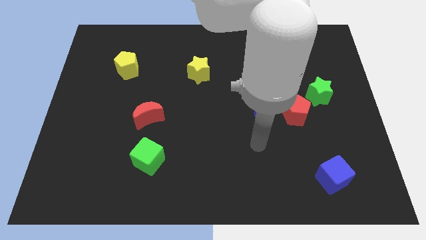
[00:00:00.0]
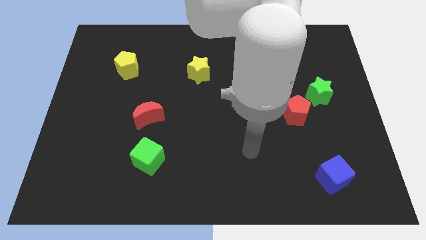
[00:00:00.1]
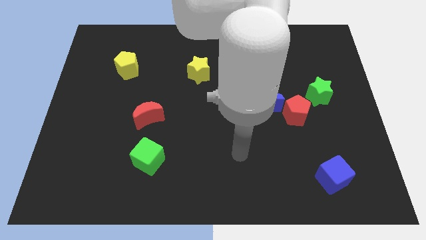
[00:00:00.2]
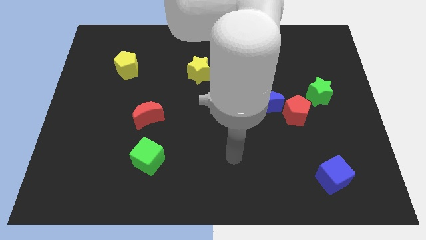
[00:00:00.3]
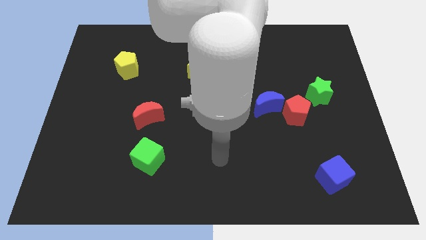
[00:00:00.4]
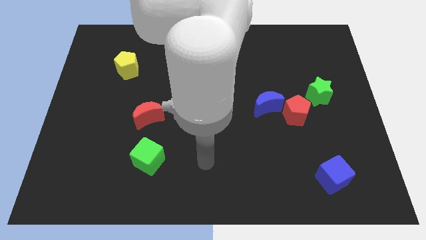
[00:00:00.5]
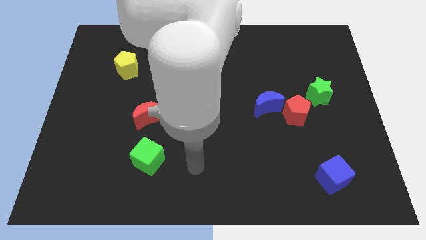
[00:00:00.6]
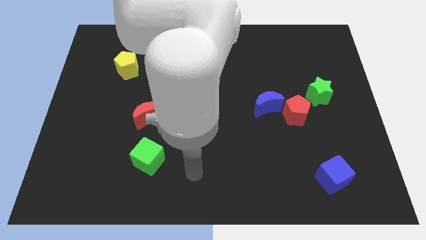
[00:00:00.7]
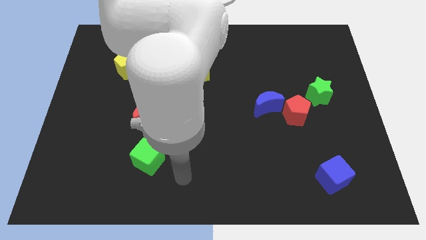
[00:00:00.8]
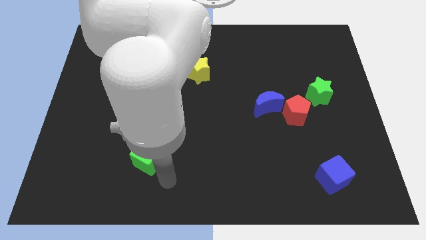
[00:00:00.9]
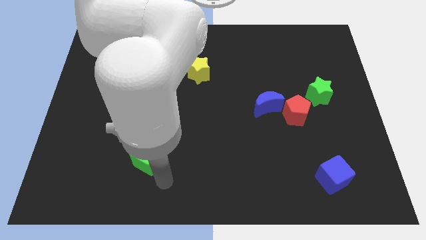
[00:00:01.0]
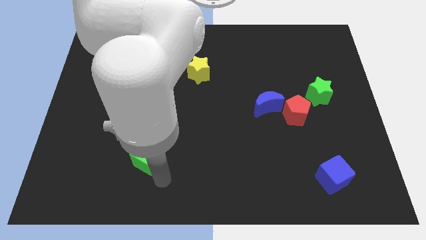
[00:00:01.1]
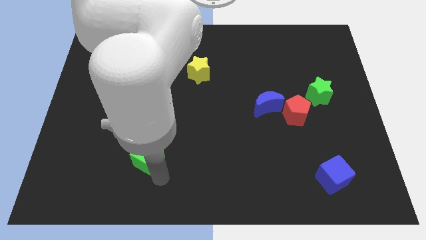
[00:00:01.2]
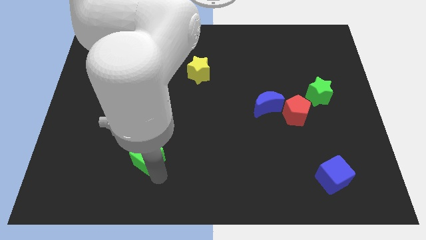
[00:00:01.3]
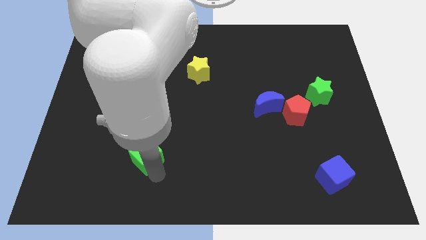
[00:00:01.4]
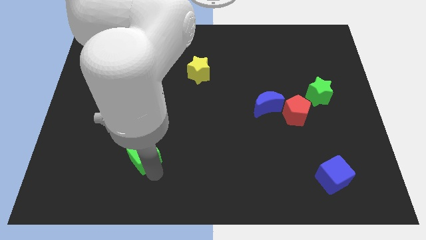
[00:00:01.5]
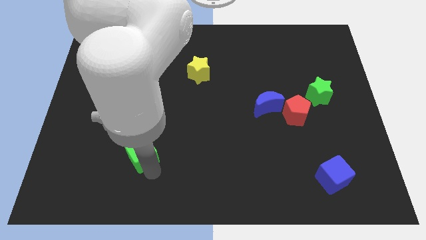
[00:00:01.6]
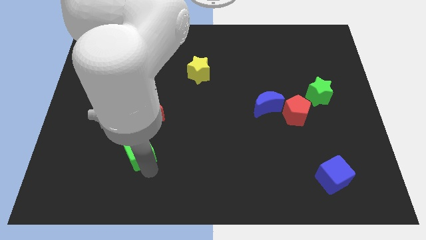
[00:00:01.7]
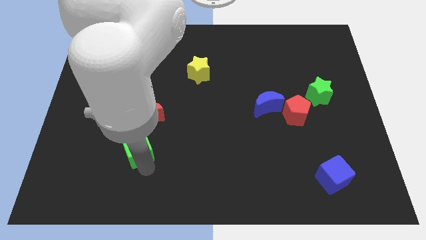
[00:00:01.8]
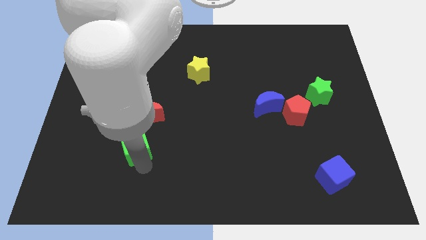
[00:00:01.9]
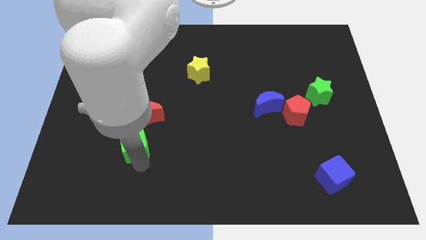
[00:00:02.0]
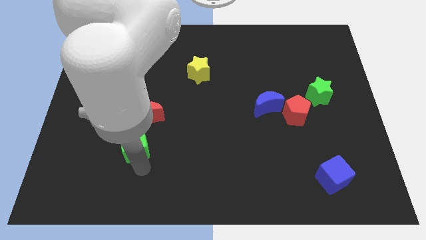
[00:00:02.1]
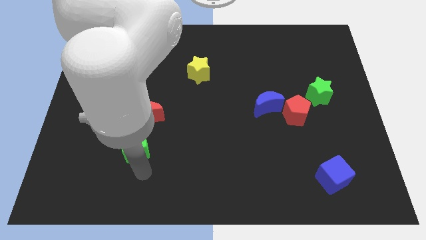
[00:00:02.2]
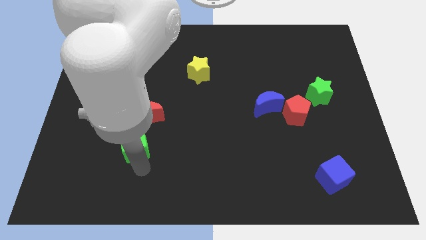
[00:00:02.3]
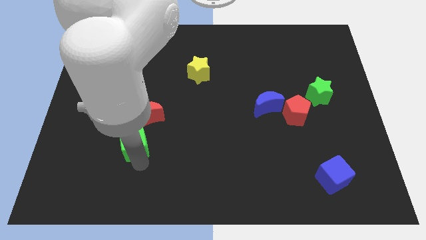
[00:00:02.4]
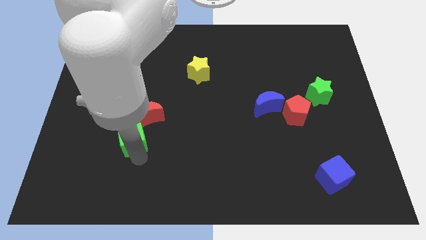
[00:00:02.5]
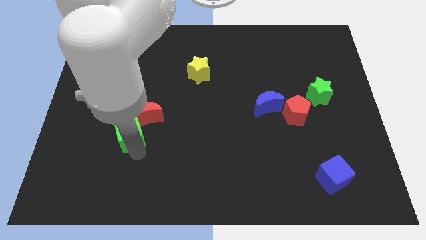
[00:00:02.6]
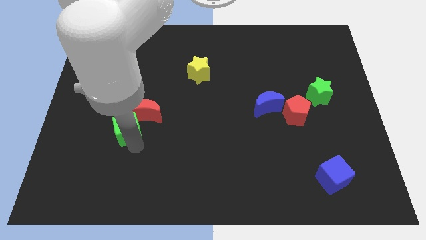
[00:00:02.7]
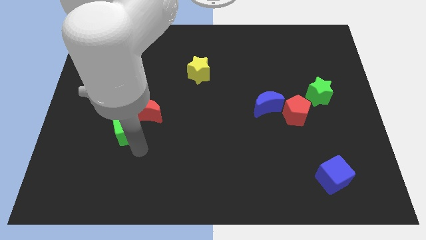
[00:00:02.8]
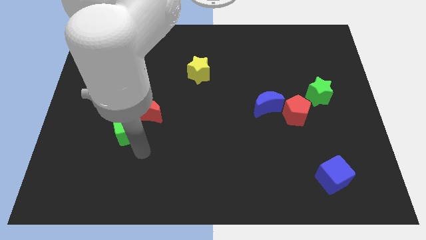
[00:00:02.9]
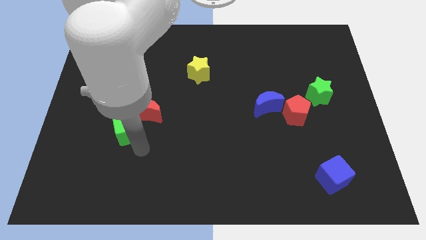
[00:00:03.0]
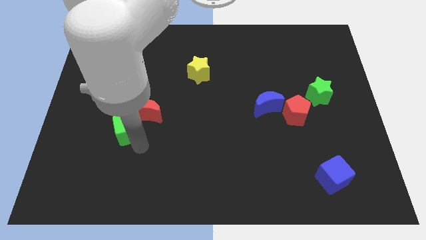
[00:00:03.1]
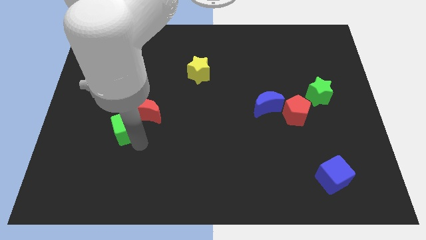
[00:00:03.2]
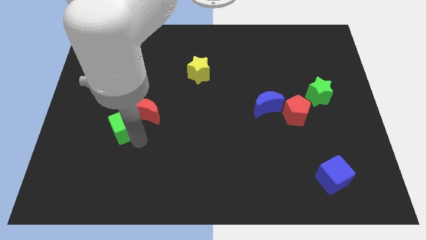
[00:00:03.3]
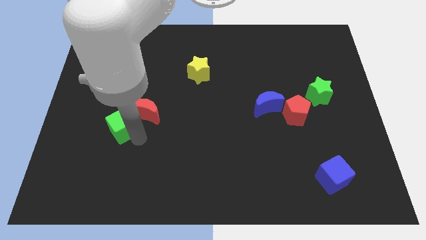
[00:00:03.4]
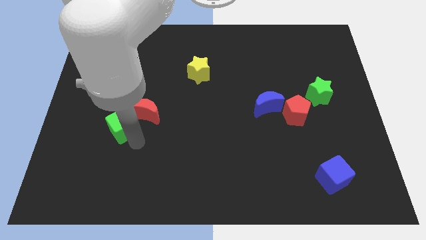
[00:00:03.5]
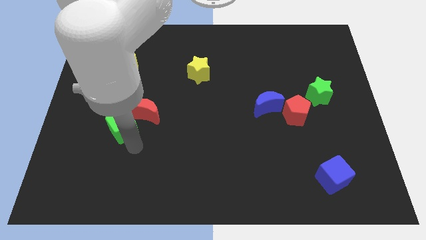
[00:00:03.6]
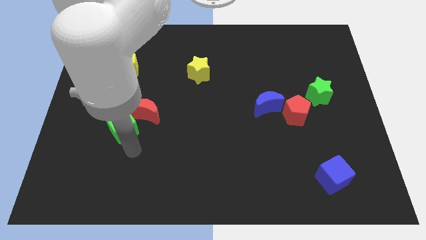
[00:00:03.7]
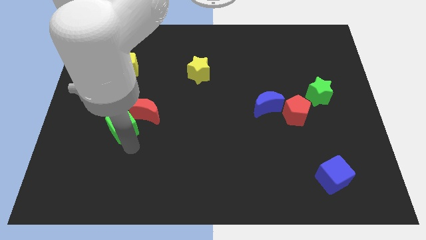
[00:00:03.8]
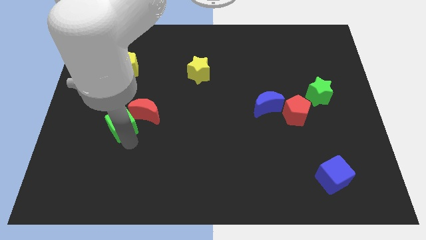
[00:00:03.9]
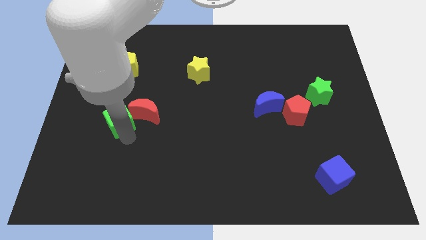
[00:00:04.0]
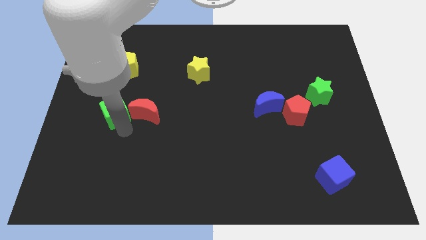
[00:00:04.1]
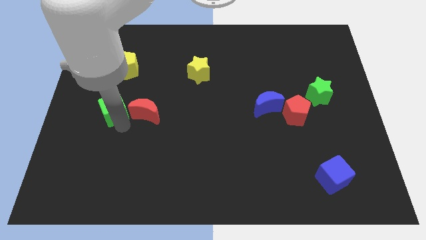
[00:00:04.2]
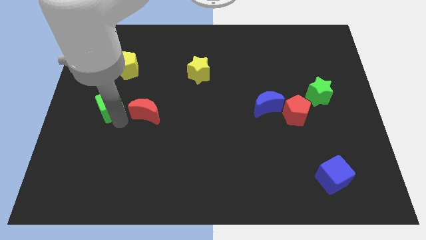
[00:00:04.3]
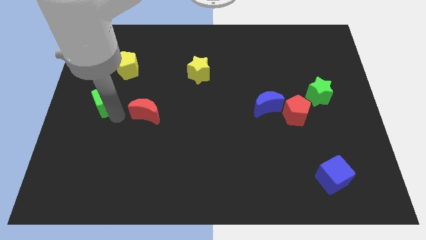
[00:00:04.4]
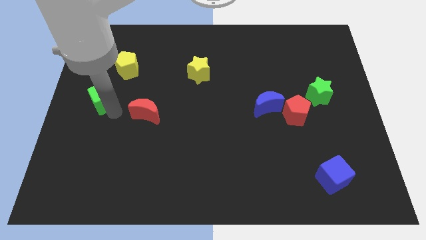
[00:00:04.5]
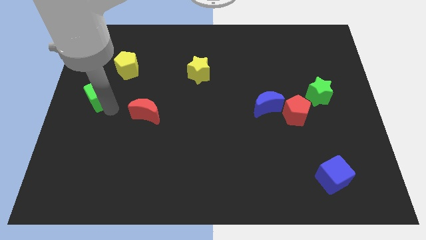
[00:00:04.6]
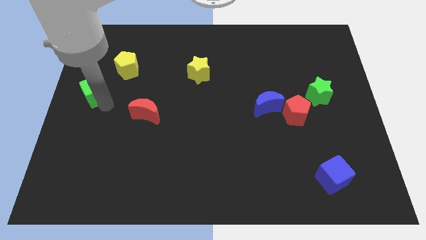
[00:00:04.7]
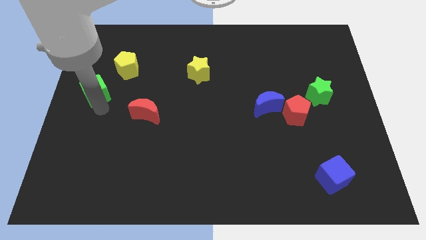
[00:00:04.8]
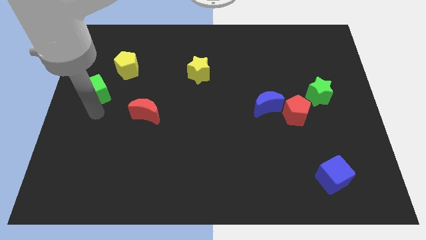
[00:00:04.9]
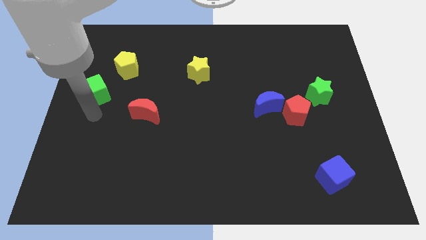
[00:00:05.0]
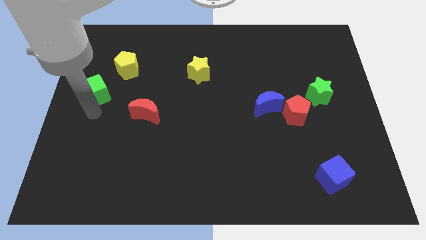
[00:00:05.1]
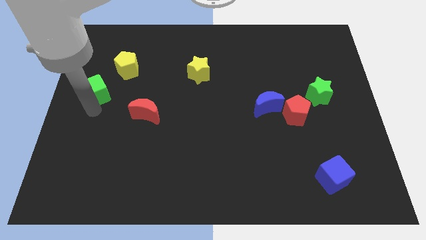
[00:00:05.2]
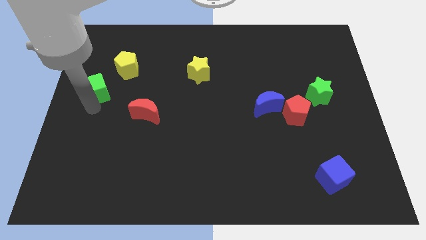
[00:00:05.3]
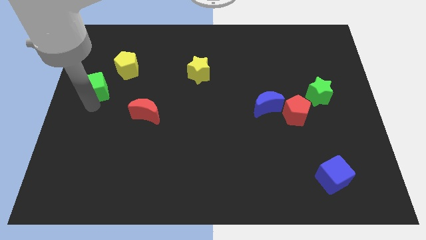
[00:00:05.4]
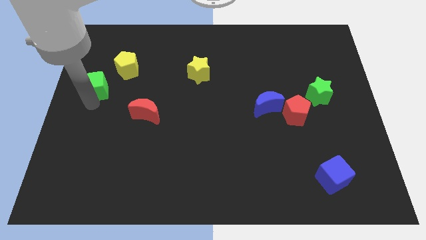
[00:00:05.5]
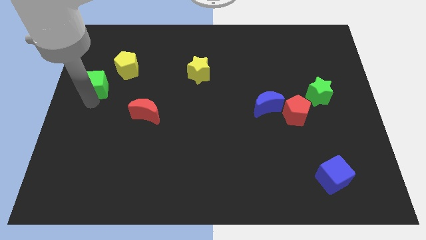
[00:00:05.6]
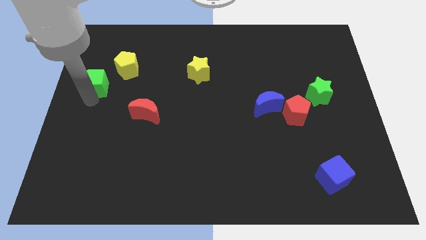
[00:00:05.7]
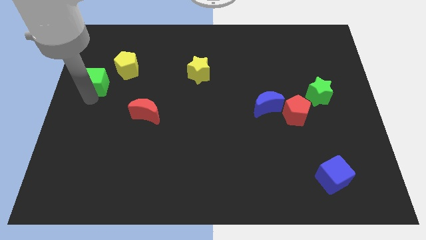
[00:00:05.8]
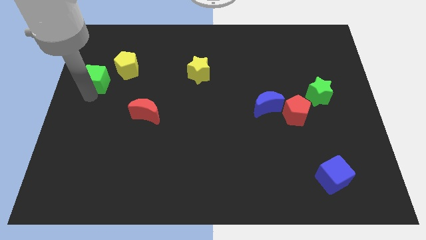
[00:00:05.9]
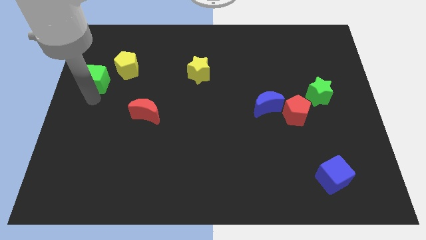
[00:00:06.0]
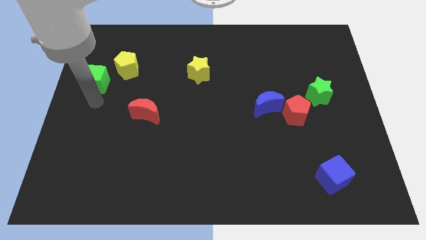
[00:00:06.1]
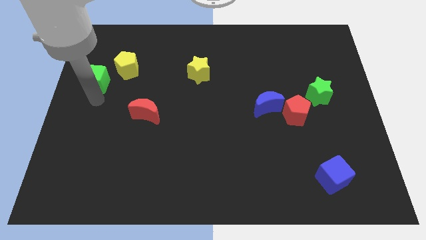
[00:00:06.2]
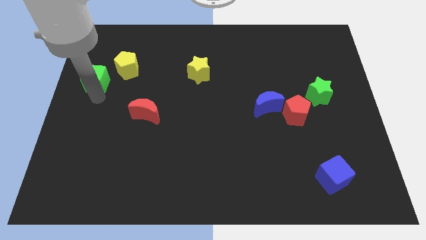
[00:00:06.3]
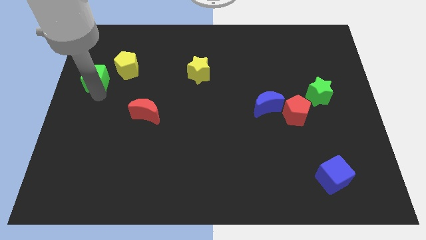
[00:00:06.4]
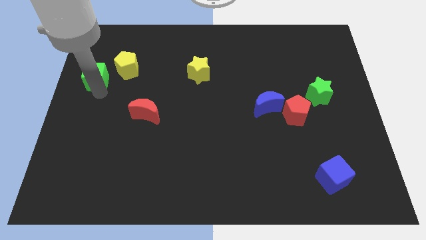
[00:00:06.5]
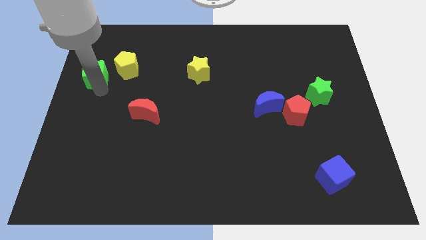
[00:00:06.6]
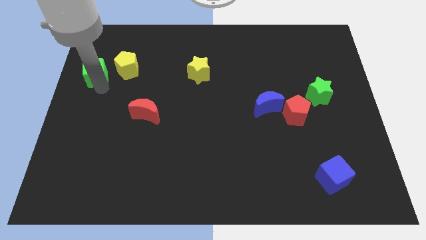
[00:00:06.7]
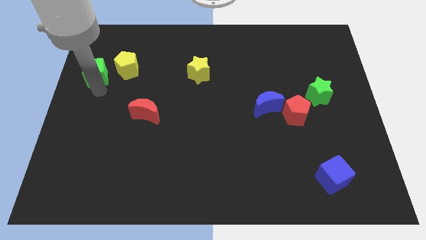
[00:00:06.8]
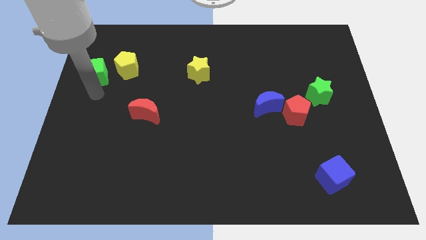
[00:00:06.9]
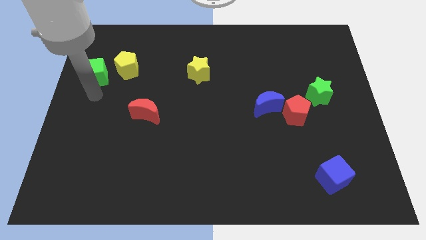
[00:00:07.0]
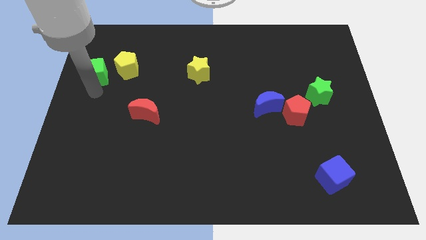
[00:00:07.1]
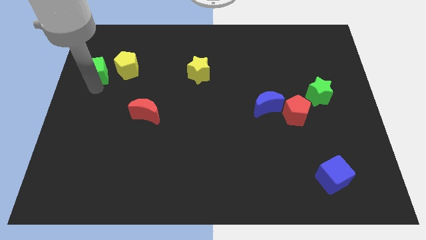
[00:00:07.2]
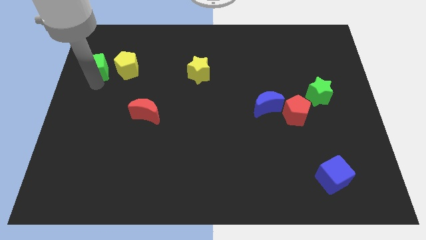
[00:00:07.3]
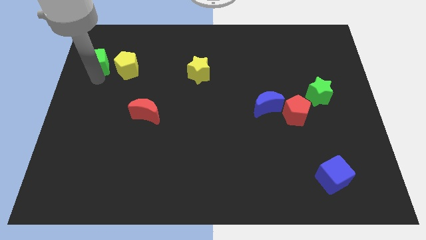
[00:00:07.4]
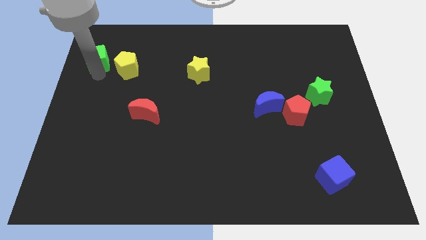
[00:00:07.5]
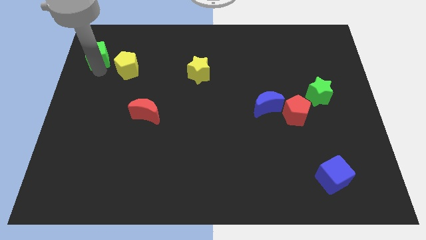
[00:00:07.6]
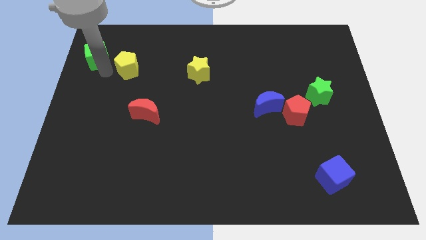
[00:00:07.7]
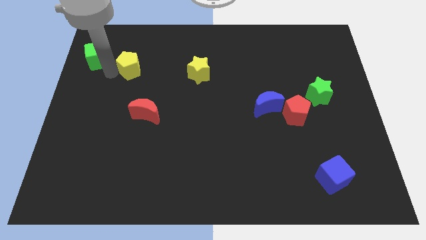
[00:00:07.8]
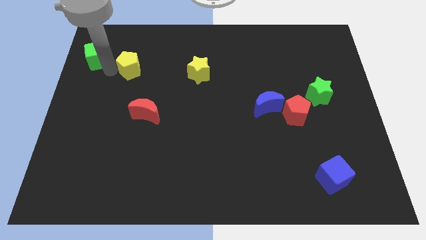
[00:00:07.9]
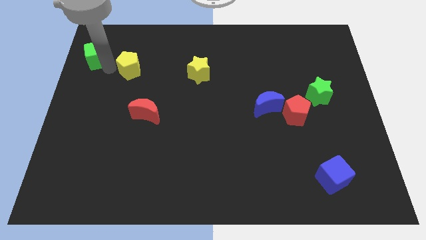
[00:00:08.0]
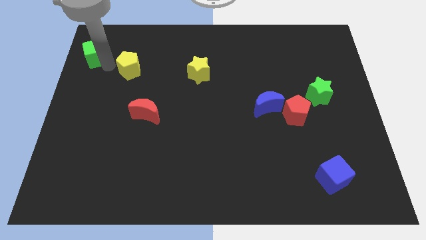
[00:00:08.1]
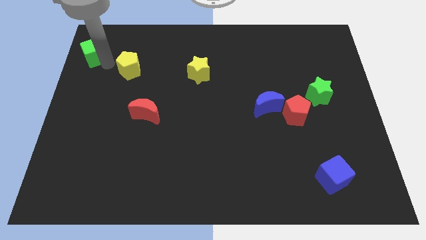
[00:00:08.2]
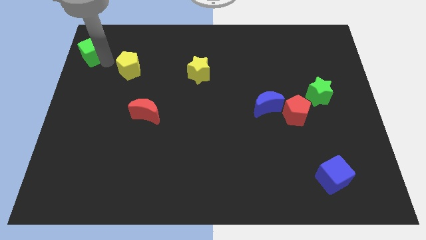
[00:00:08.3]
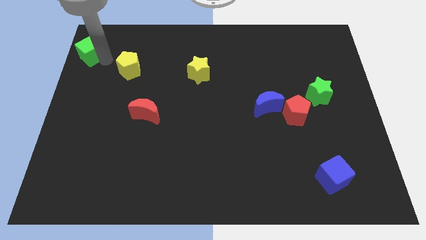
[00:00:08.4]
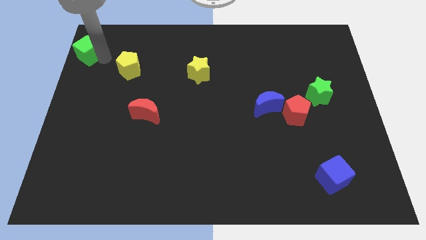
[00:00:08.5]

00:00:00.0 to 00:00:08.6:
slide the green cube to the top left of the board
